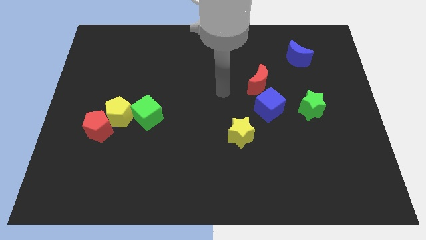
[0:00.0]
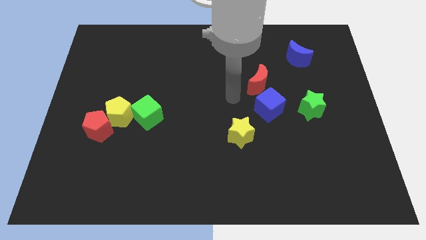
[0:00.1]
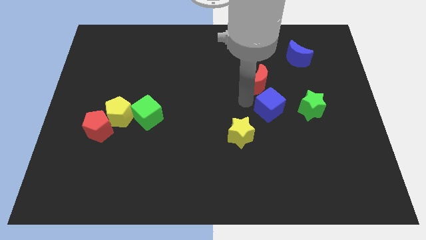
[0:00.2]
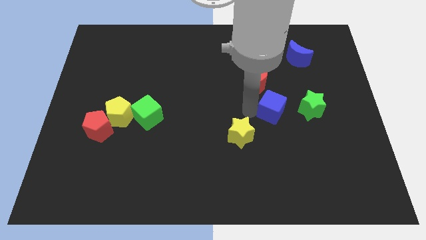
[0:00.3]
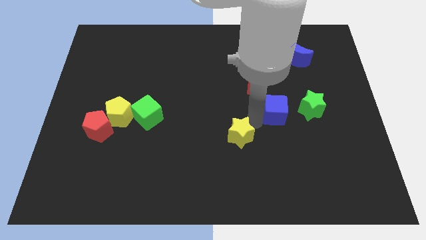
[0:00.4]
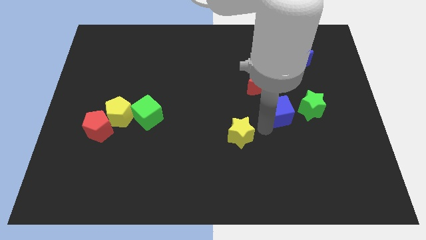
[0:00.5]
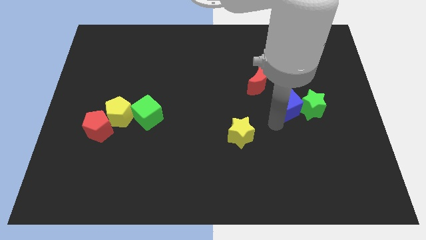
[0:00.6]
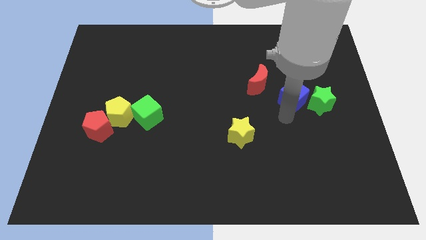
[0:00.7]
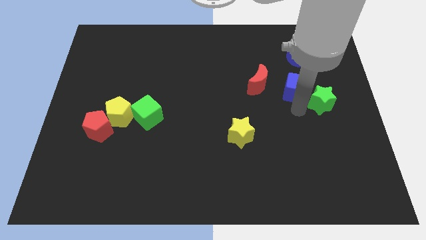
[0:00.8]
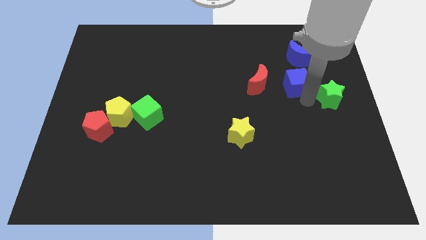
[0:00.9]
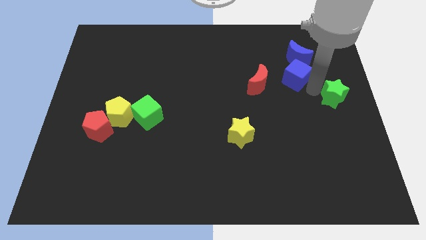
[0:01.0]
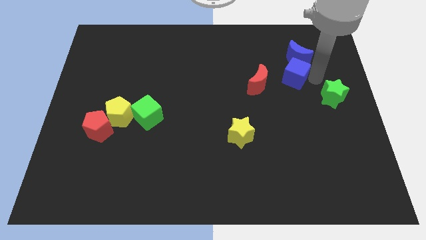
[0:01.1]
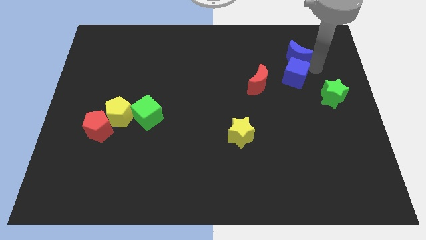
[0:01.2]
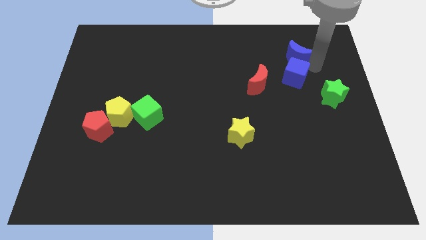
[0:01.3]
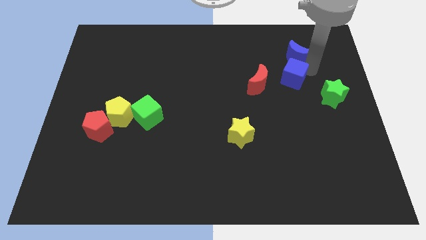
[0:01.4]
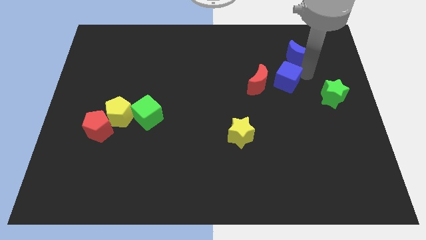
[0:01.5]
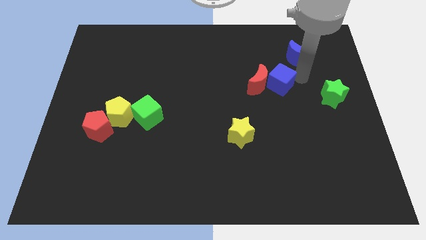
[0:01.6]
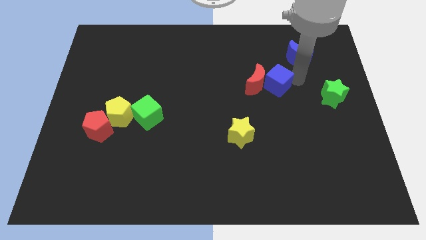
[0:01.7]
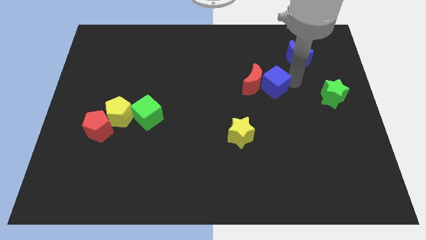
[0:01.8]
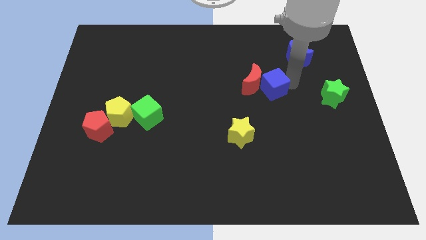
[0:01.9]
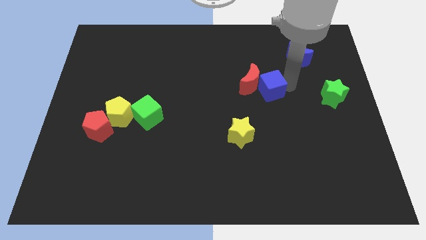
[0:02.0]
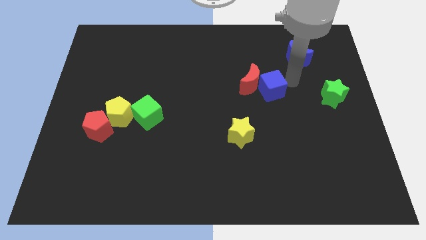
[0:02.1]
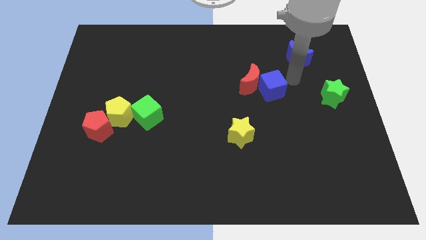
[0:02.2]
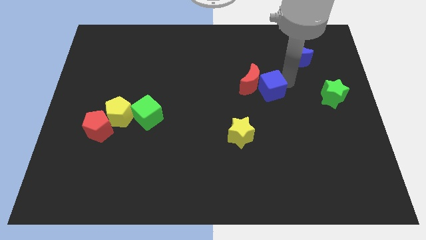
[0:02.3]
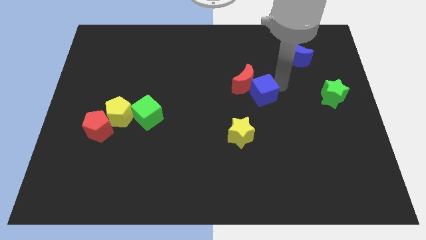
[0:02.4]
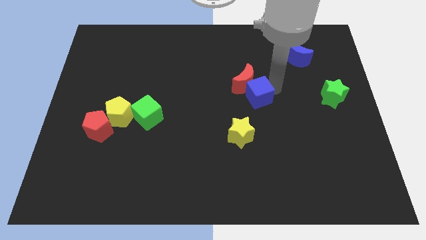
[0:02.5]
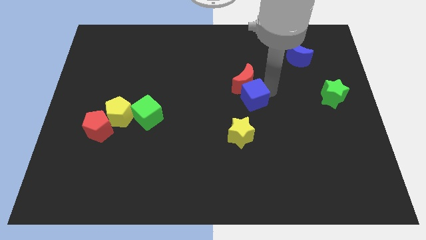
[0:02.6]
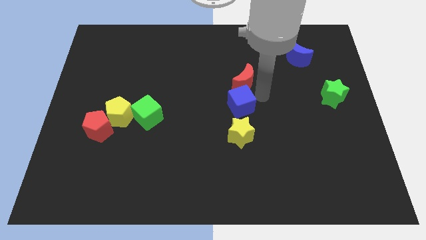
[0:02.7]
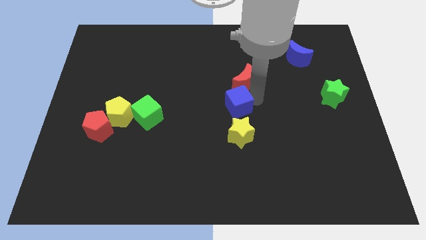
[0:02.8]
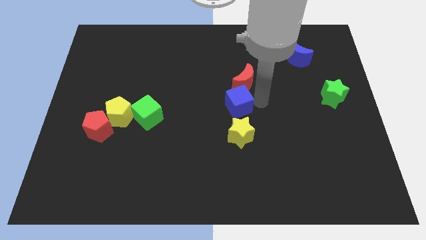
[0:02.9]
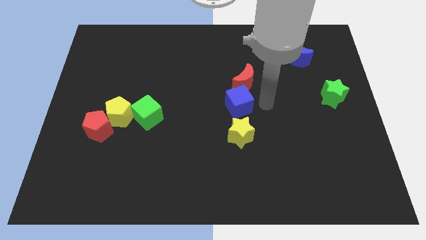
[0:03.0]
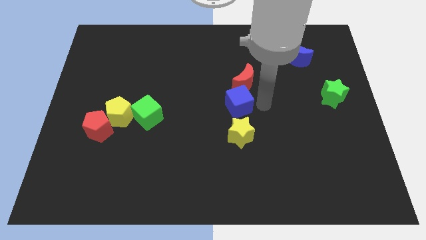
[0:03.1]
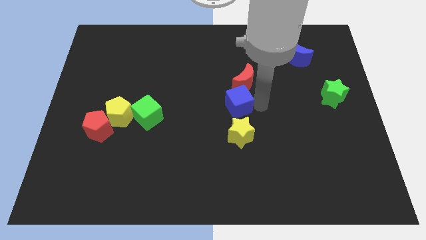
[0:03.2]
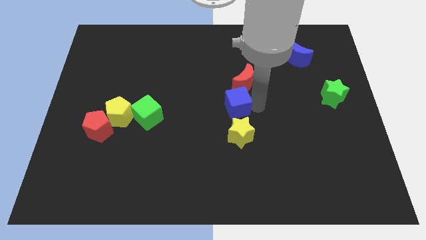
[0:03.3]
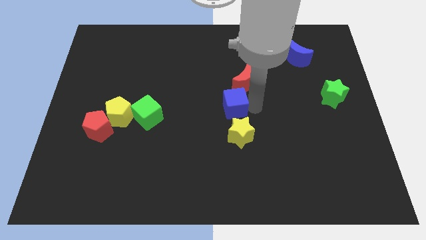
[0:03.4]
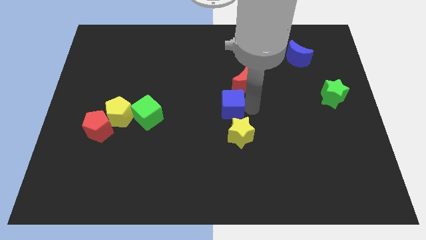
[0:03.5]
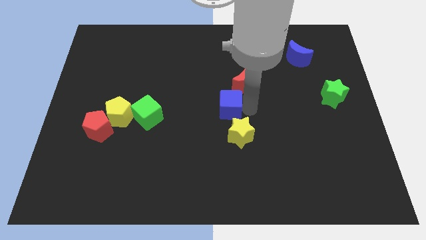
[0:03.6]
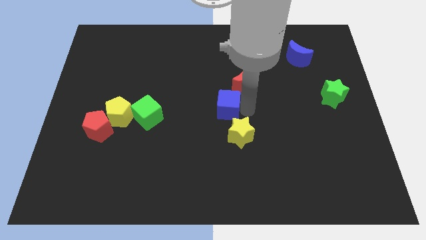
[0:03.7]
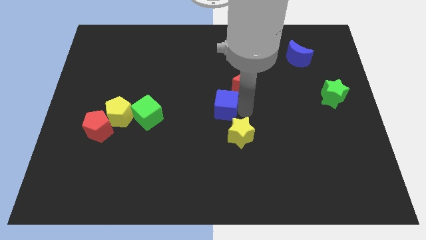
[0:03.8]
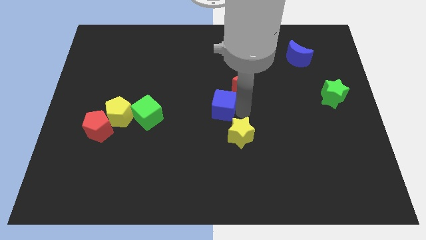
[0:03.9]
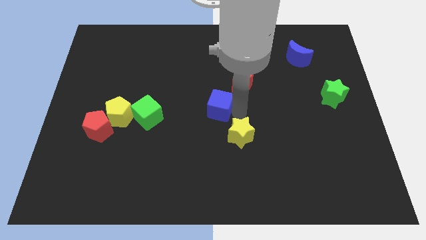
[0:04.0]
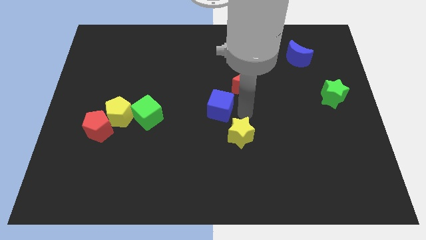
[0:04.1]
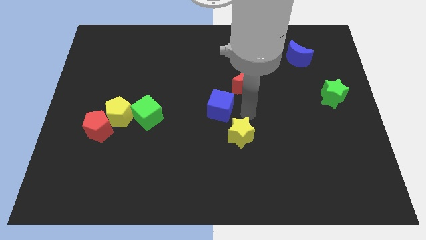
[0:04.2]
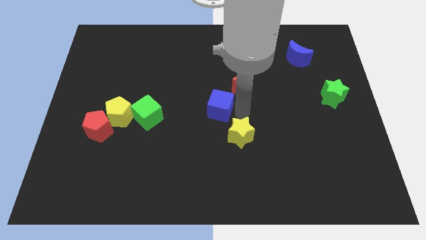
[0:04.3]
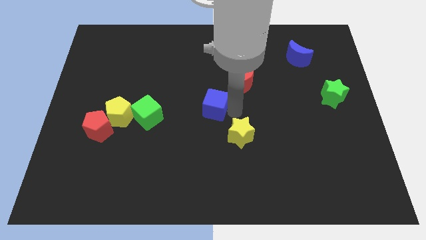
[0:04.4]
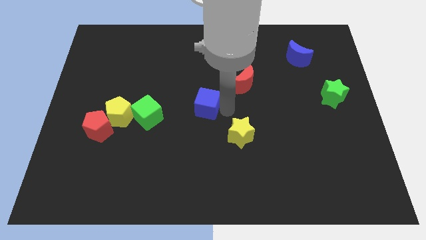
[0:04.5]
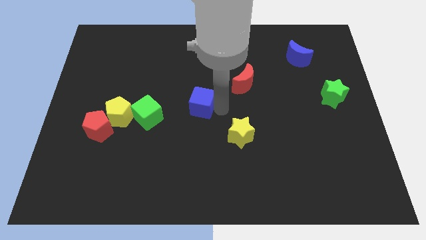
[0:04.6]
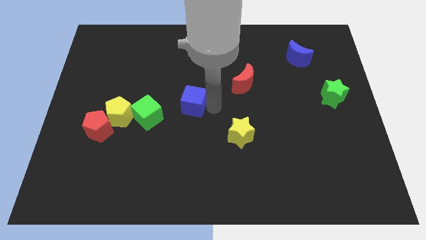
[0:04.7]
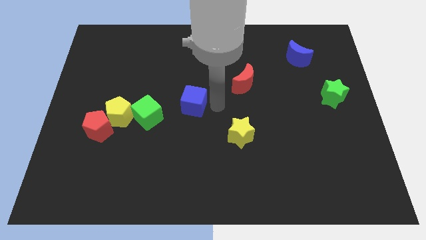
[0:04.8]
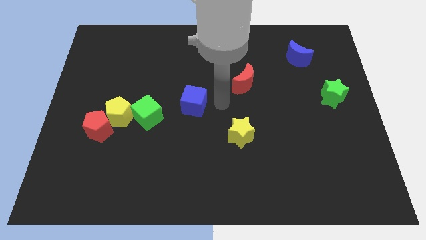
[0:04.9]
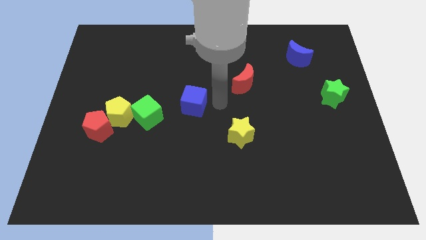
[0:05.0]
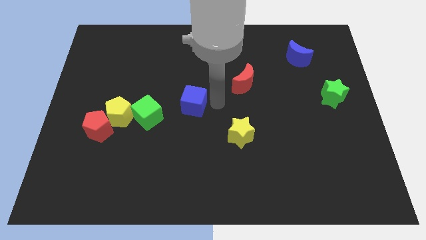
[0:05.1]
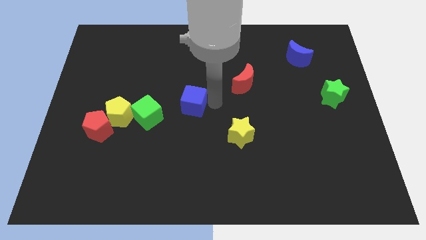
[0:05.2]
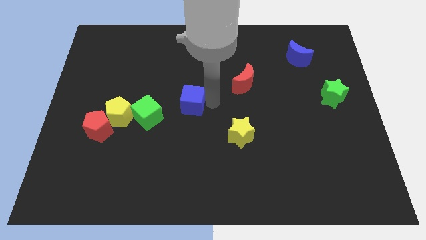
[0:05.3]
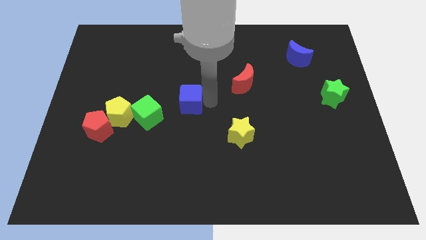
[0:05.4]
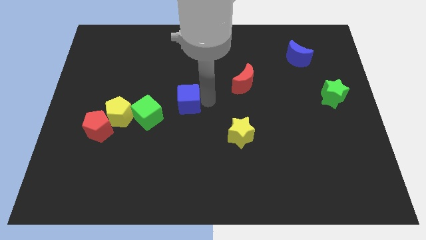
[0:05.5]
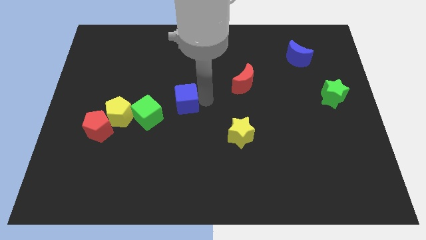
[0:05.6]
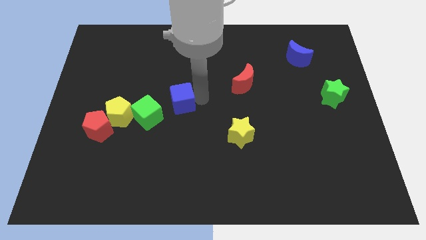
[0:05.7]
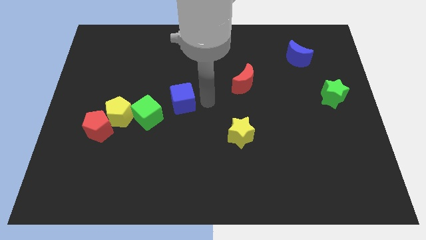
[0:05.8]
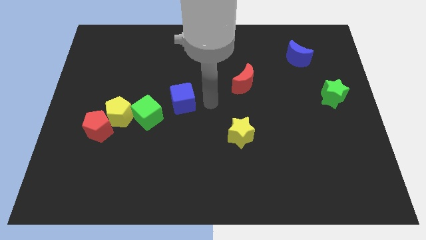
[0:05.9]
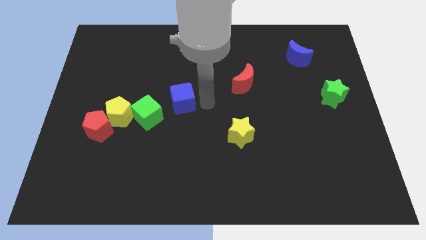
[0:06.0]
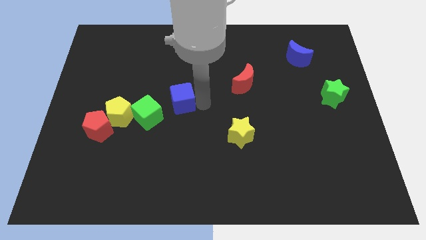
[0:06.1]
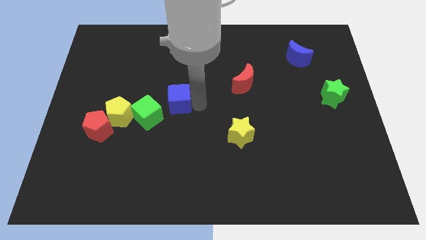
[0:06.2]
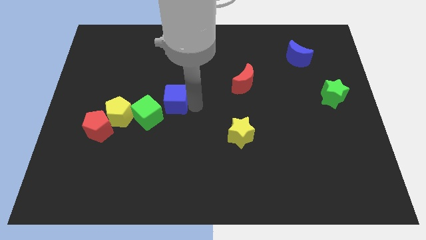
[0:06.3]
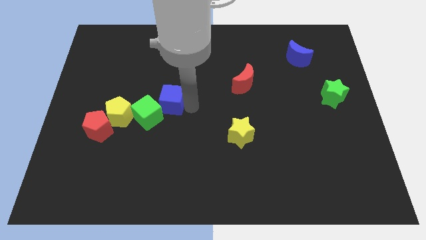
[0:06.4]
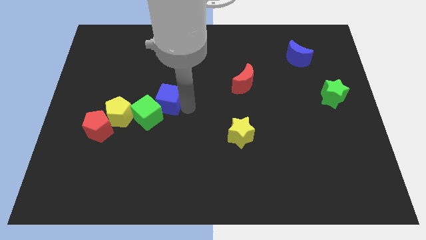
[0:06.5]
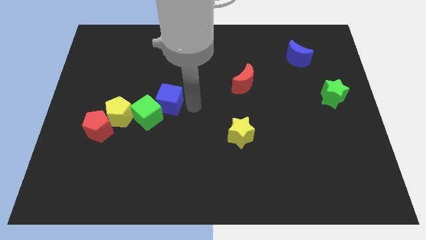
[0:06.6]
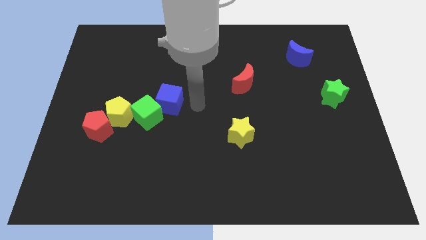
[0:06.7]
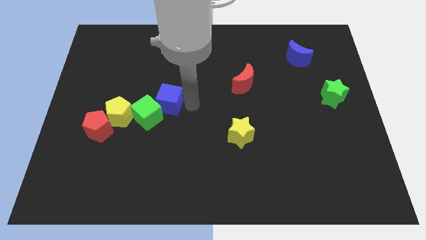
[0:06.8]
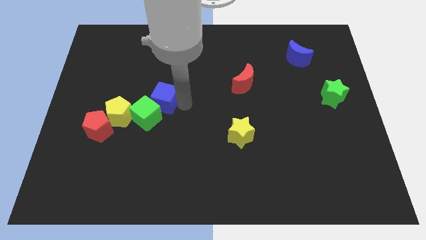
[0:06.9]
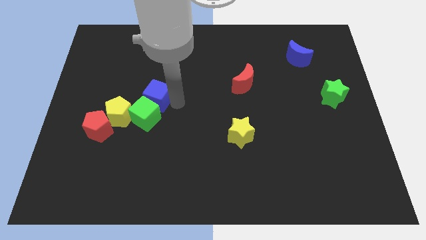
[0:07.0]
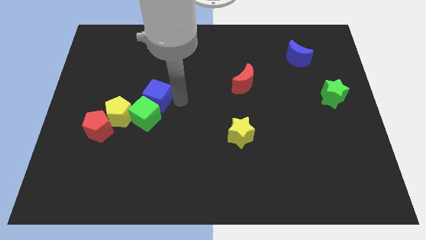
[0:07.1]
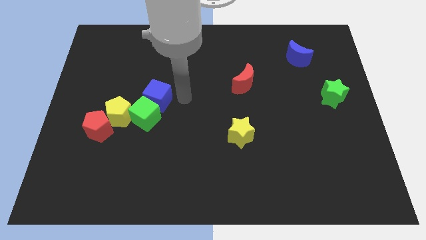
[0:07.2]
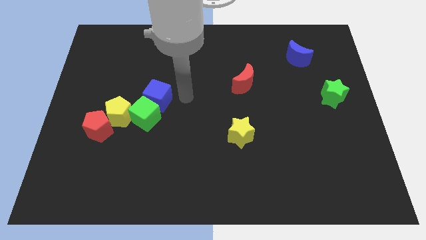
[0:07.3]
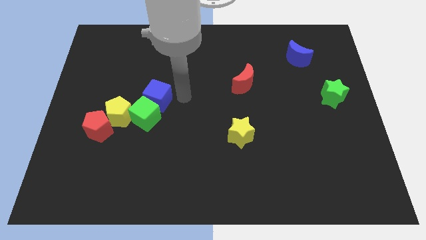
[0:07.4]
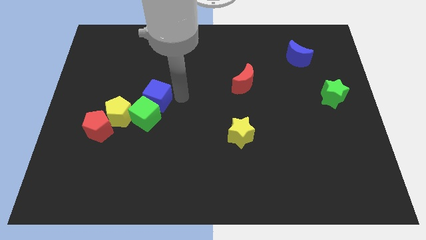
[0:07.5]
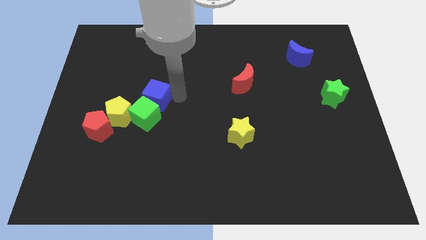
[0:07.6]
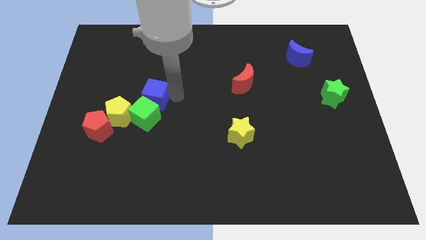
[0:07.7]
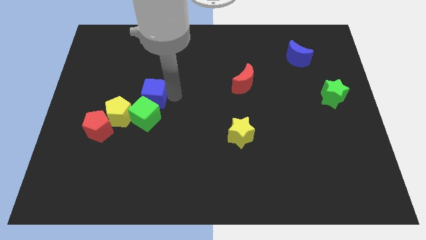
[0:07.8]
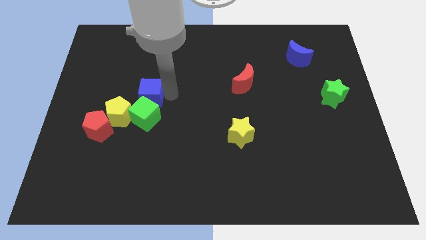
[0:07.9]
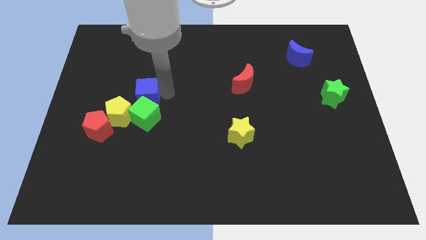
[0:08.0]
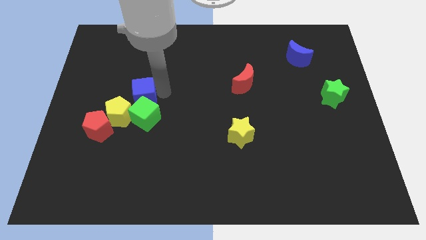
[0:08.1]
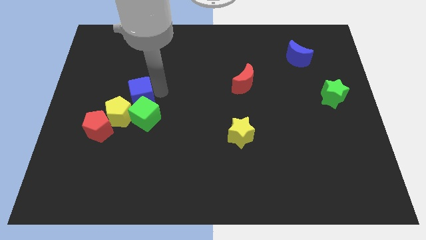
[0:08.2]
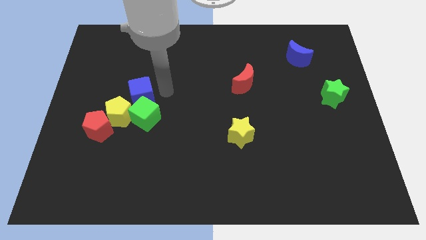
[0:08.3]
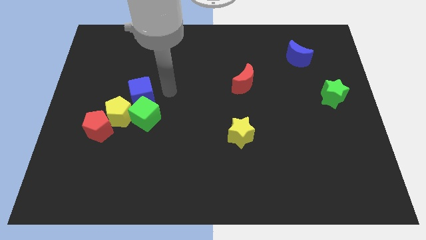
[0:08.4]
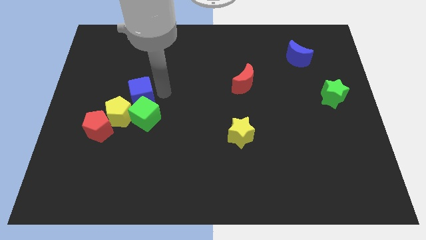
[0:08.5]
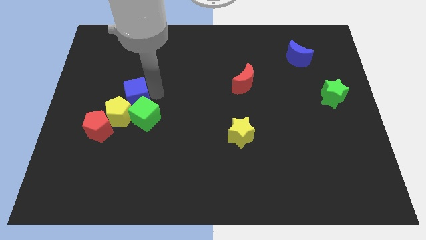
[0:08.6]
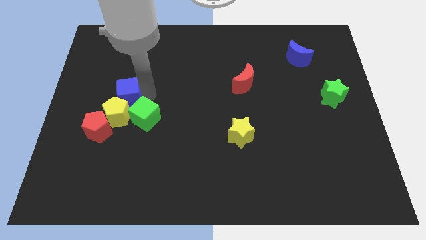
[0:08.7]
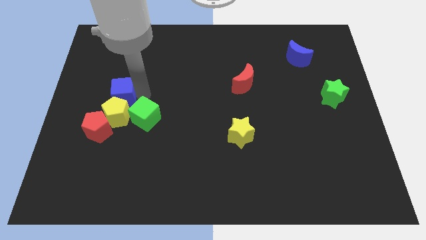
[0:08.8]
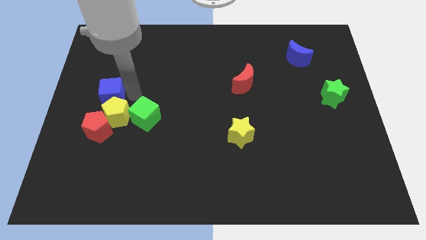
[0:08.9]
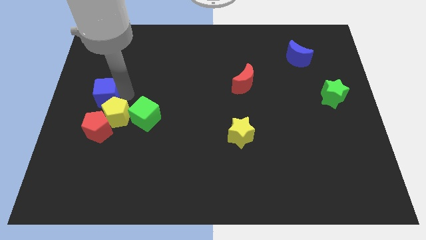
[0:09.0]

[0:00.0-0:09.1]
put the blue cube to the center left
